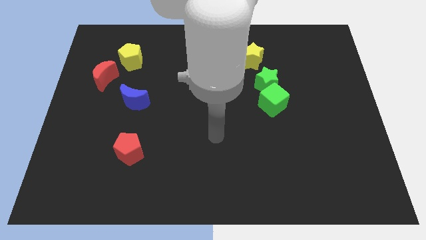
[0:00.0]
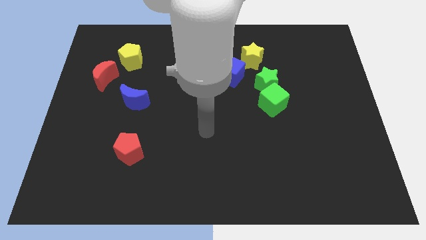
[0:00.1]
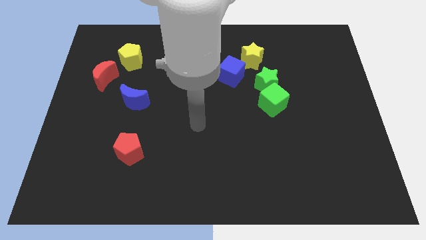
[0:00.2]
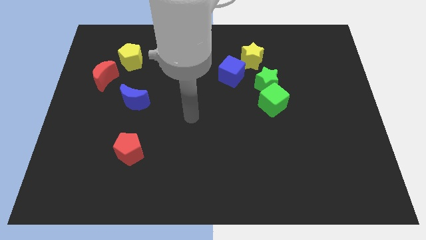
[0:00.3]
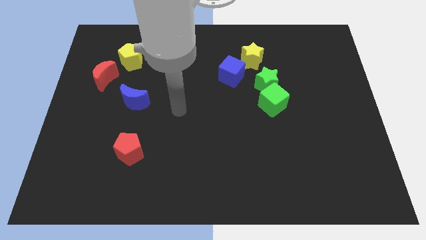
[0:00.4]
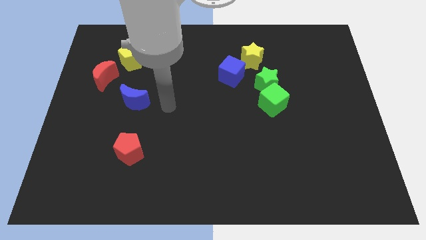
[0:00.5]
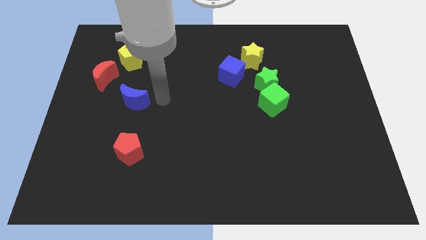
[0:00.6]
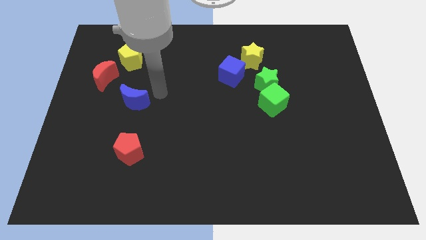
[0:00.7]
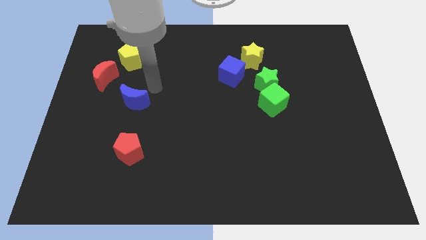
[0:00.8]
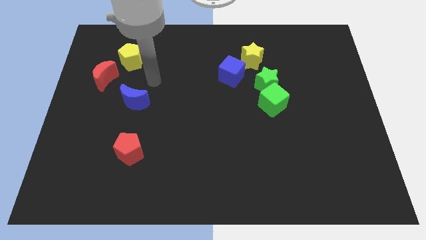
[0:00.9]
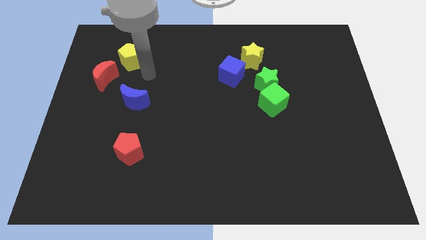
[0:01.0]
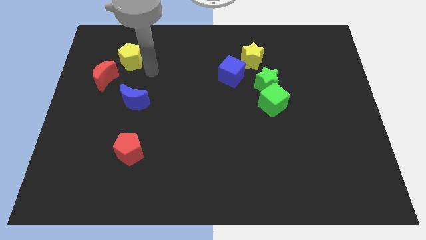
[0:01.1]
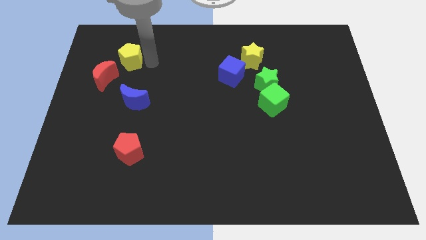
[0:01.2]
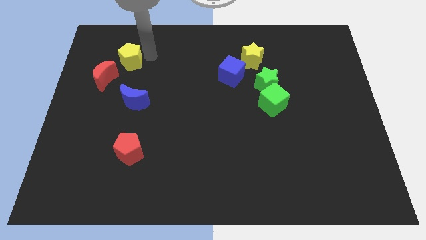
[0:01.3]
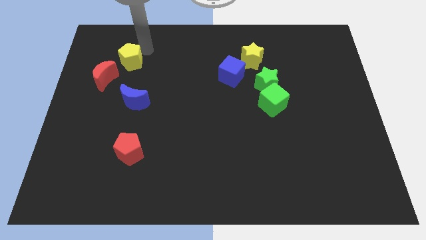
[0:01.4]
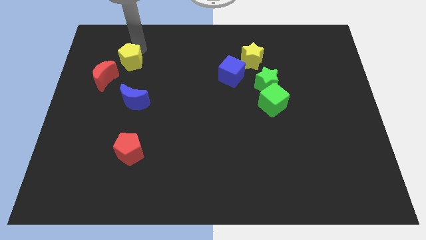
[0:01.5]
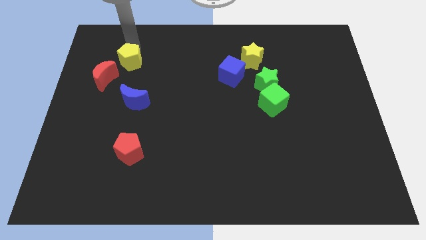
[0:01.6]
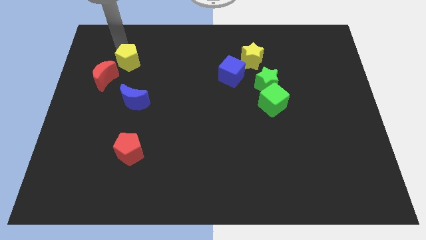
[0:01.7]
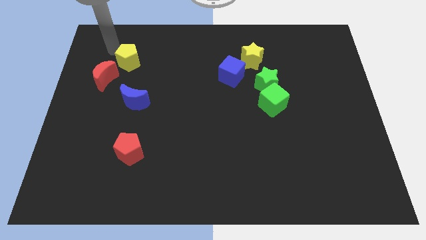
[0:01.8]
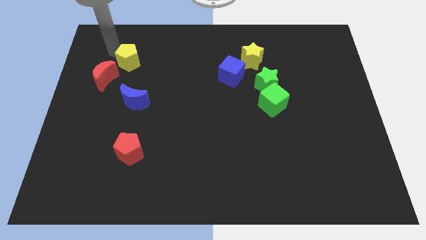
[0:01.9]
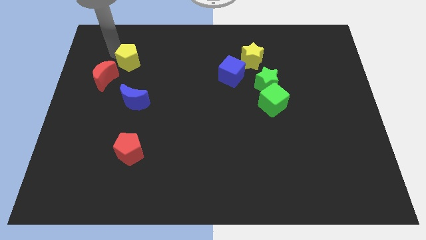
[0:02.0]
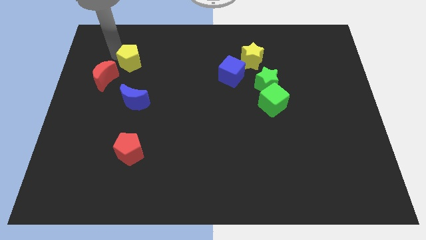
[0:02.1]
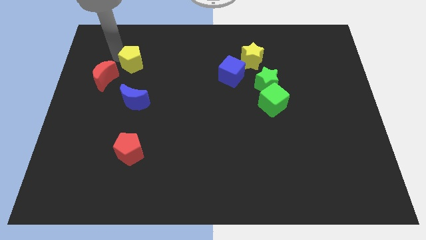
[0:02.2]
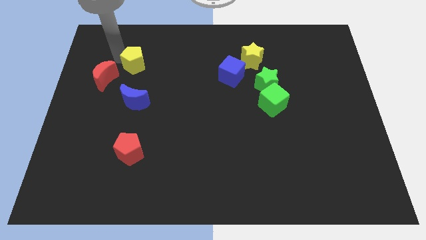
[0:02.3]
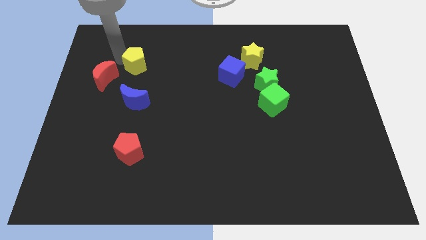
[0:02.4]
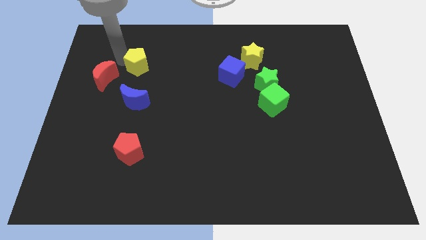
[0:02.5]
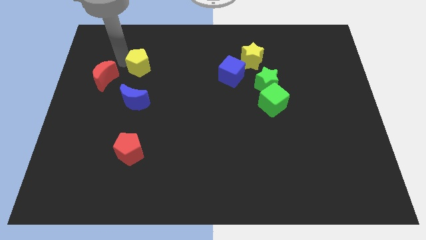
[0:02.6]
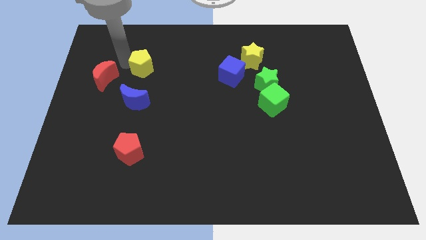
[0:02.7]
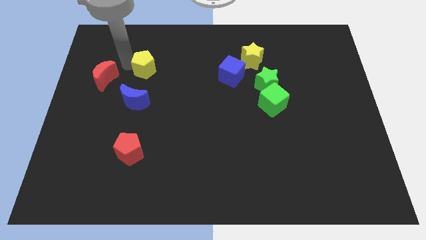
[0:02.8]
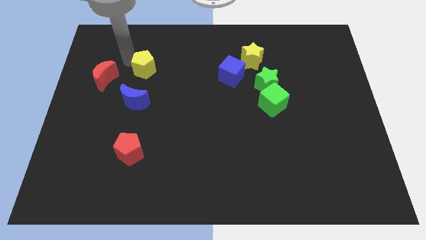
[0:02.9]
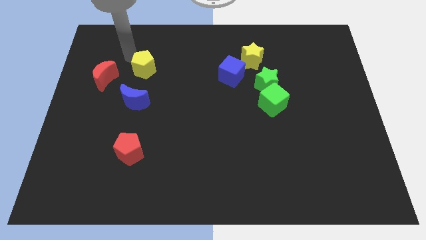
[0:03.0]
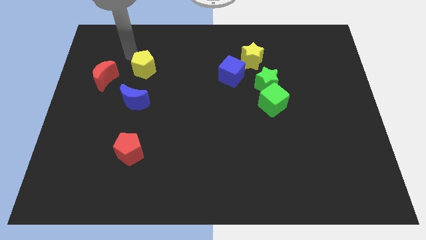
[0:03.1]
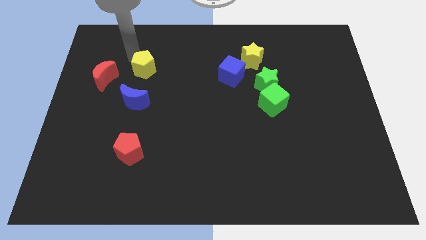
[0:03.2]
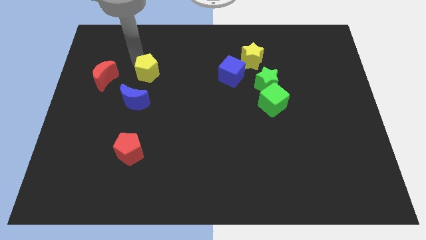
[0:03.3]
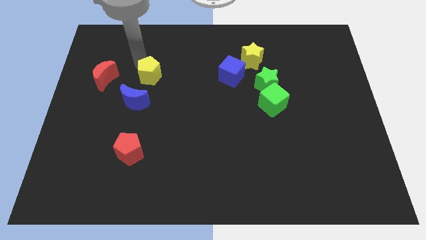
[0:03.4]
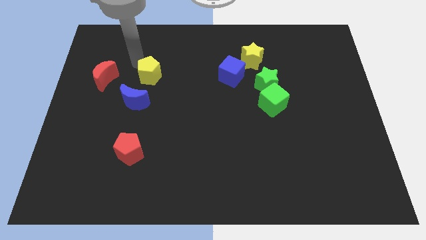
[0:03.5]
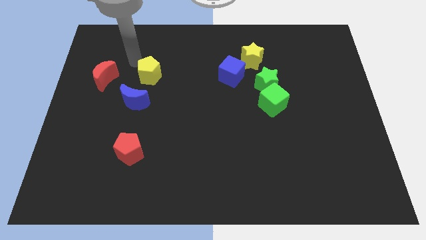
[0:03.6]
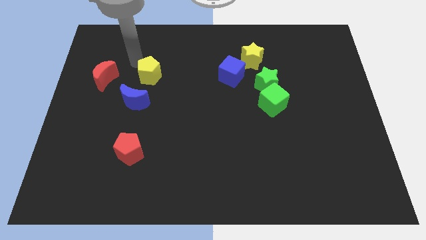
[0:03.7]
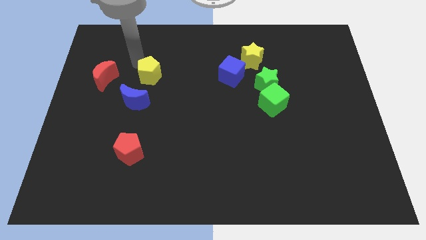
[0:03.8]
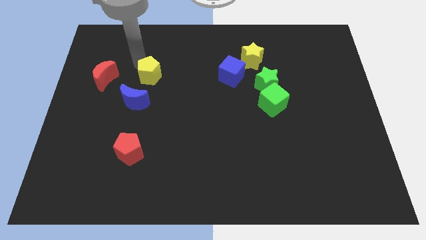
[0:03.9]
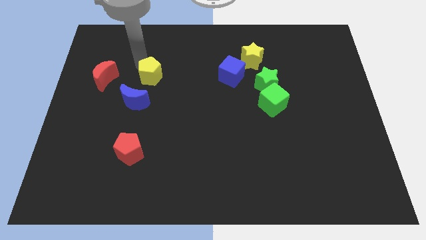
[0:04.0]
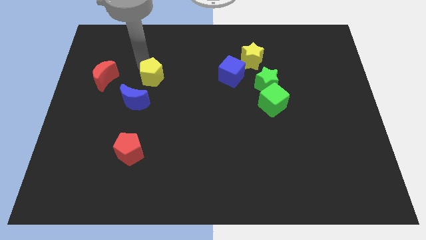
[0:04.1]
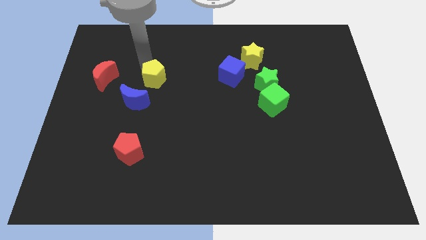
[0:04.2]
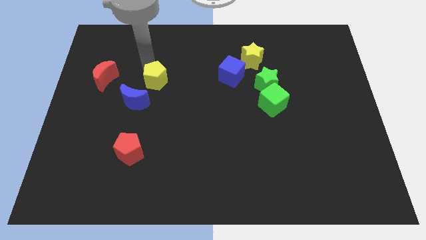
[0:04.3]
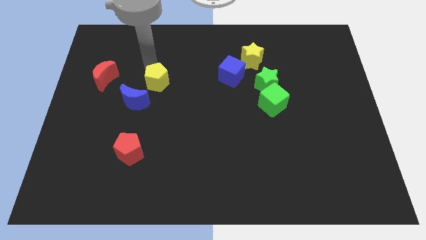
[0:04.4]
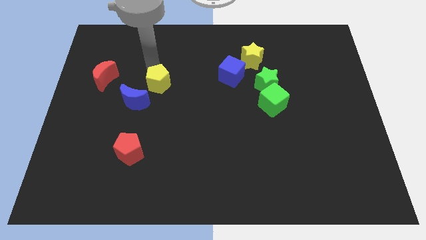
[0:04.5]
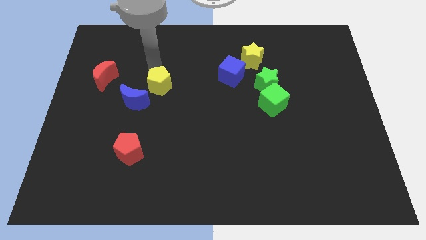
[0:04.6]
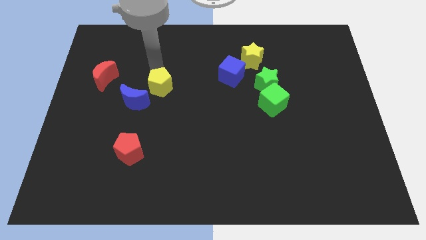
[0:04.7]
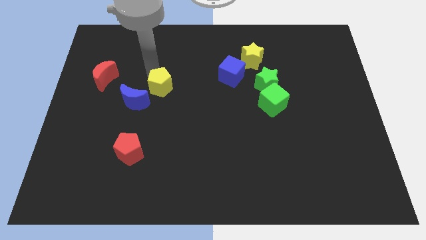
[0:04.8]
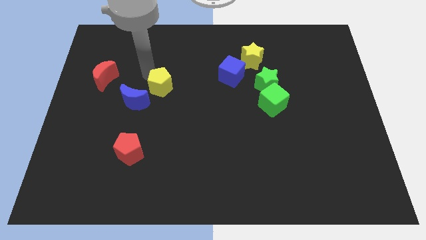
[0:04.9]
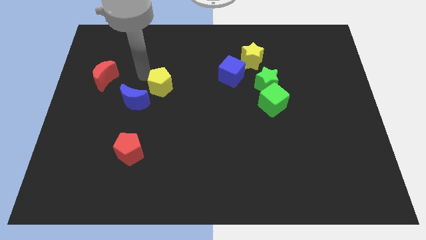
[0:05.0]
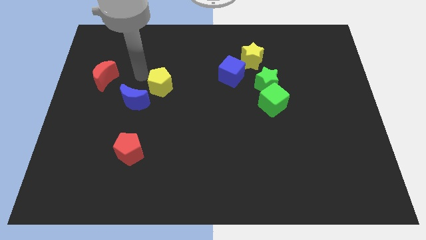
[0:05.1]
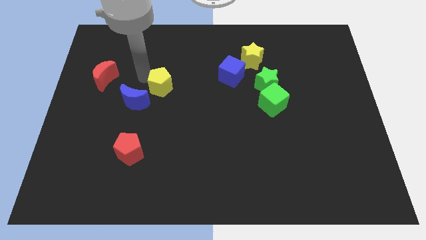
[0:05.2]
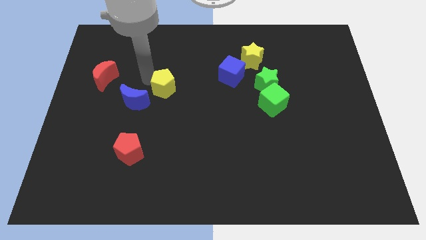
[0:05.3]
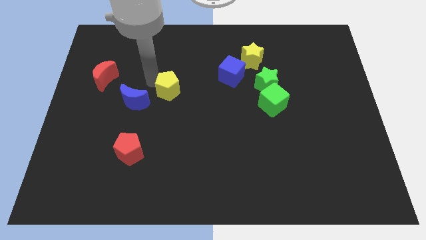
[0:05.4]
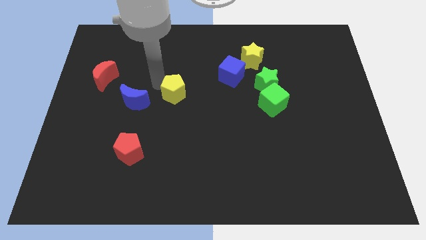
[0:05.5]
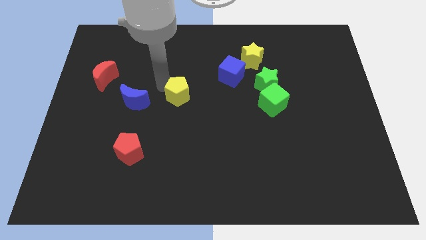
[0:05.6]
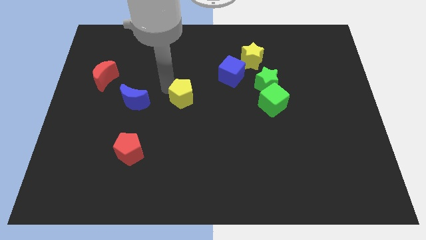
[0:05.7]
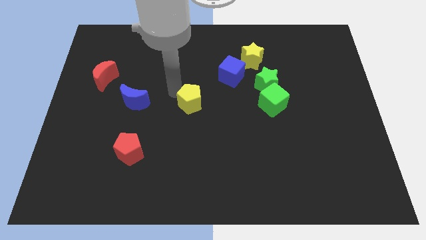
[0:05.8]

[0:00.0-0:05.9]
move the yellow pentagon downwards and then to the right

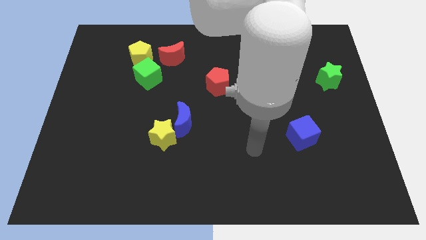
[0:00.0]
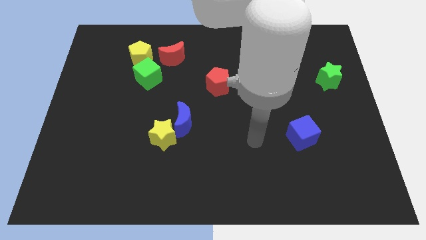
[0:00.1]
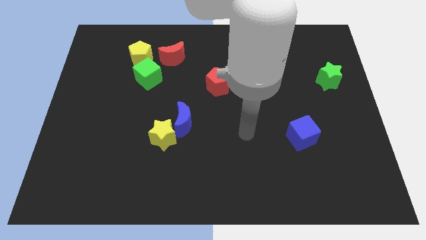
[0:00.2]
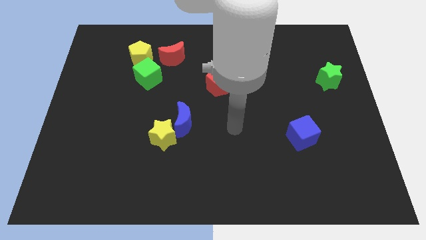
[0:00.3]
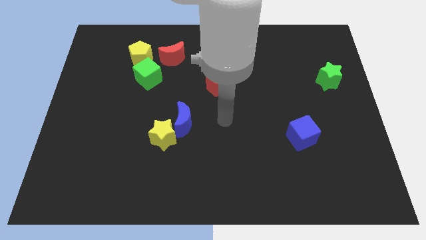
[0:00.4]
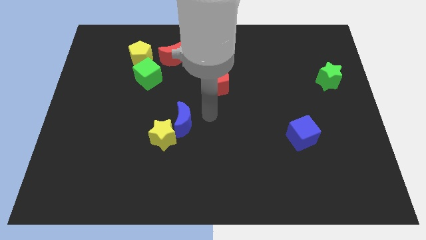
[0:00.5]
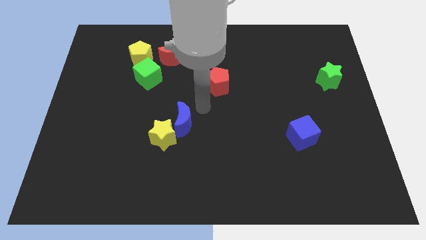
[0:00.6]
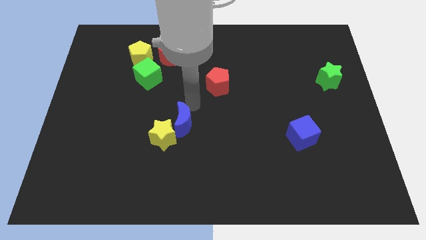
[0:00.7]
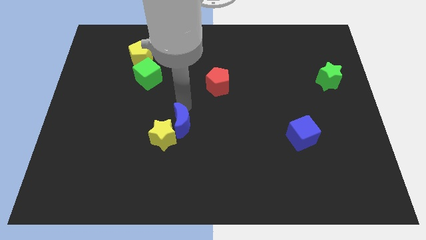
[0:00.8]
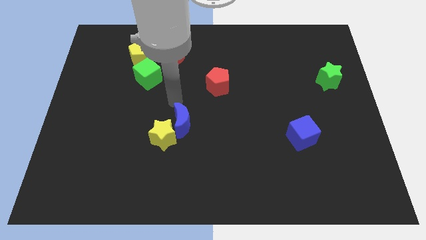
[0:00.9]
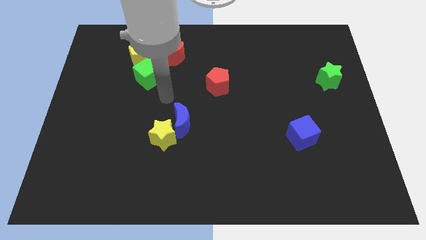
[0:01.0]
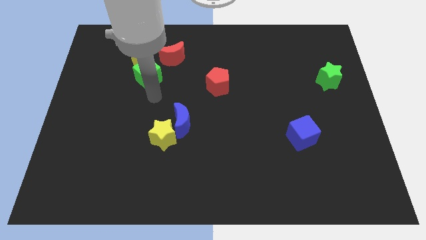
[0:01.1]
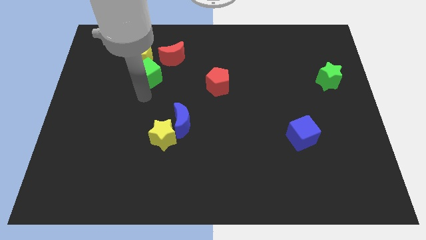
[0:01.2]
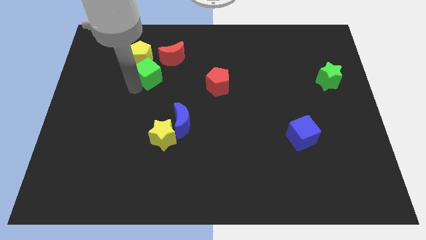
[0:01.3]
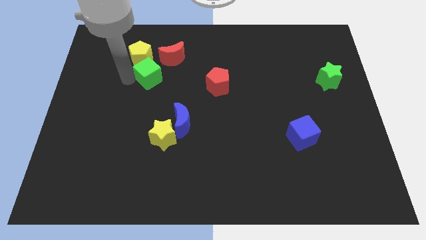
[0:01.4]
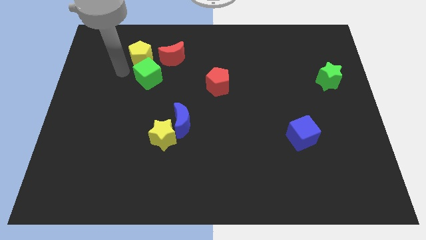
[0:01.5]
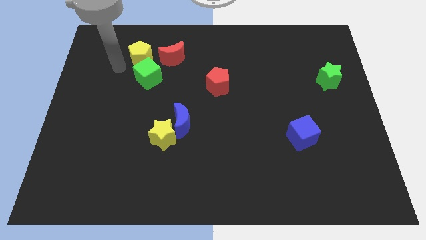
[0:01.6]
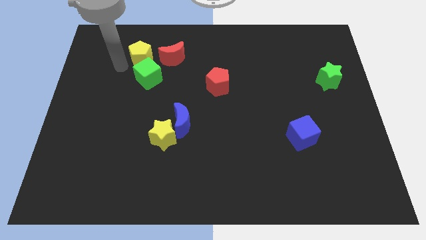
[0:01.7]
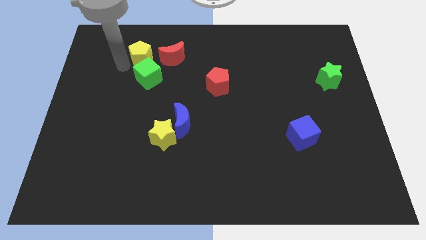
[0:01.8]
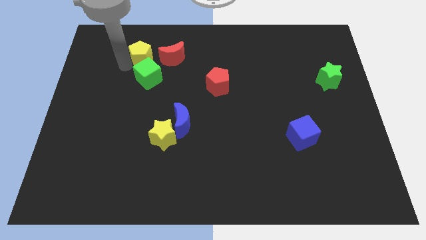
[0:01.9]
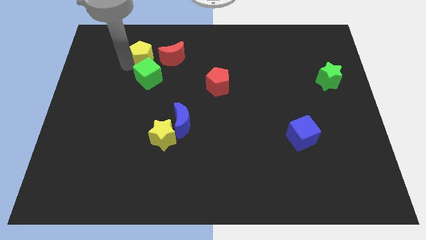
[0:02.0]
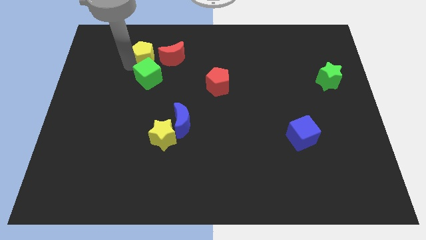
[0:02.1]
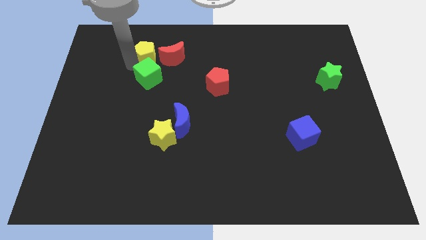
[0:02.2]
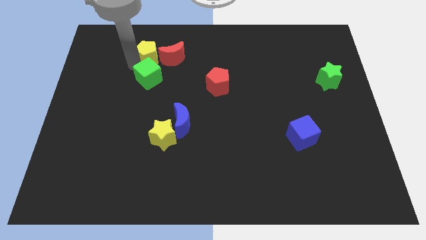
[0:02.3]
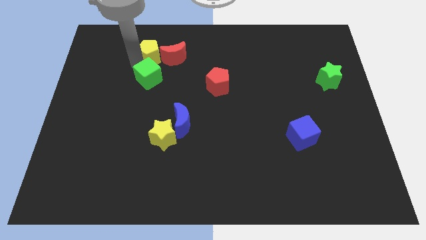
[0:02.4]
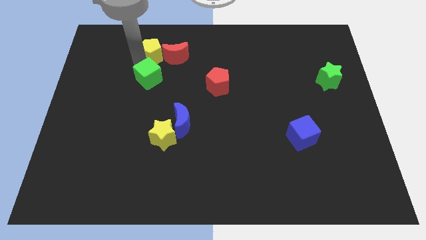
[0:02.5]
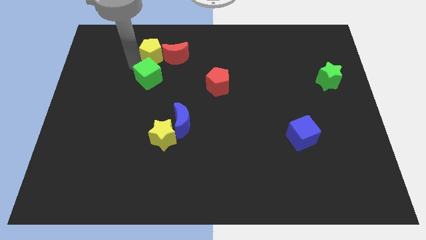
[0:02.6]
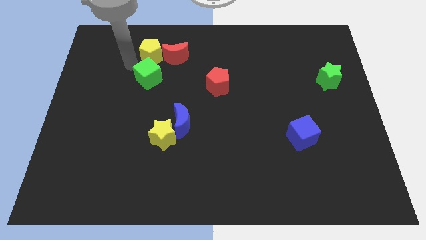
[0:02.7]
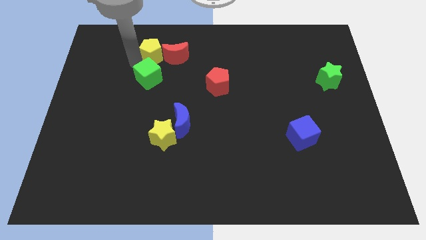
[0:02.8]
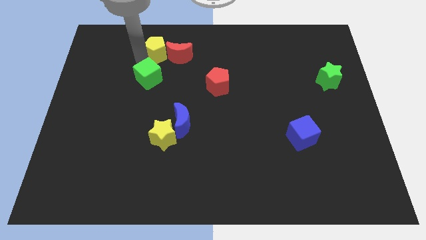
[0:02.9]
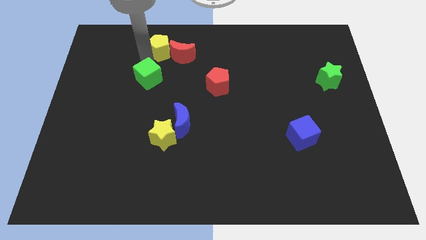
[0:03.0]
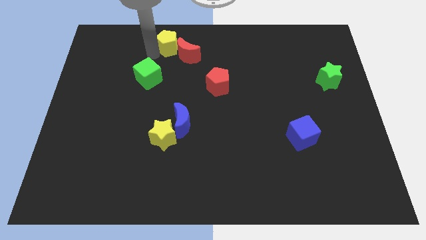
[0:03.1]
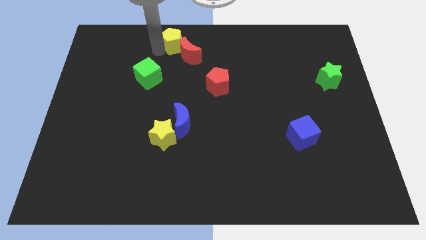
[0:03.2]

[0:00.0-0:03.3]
slide the yellow pentagon right a little
